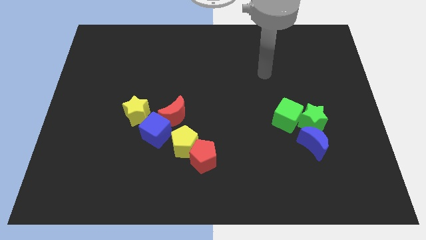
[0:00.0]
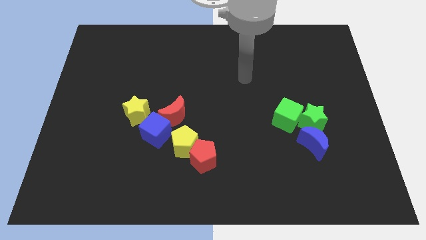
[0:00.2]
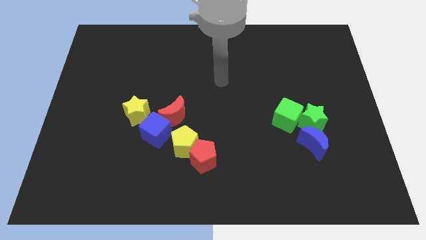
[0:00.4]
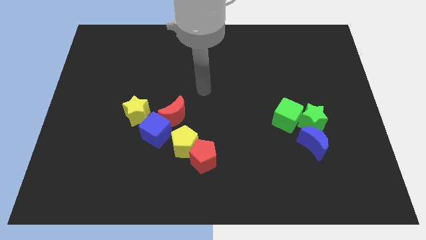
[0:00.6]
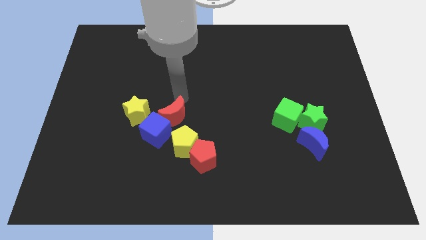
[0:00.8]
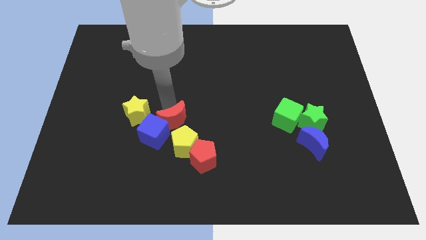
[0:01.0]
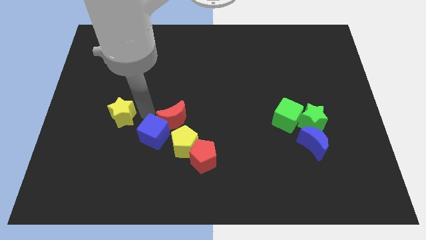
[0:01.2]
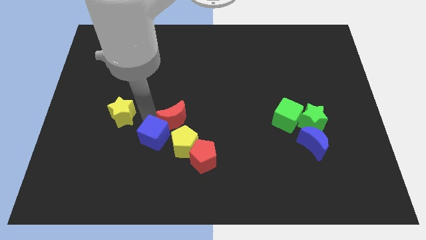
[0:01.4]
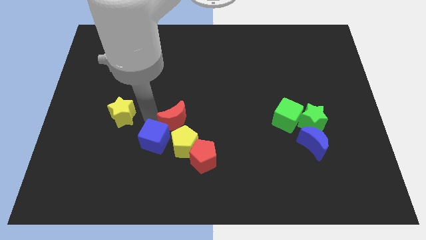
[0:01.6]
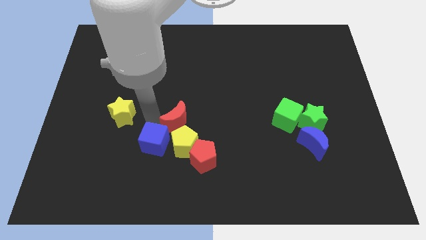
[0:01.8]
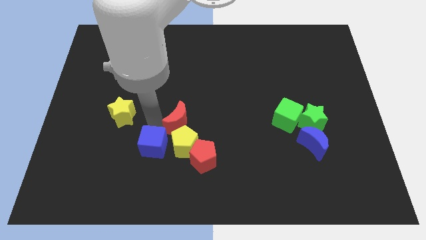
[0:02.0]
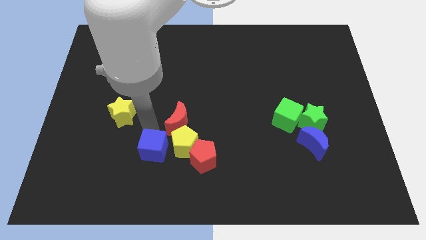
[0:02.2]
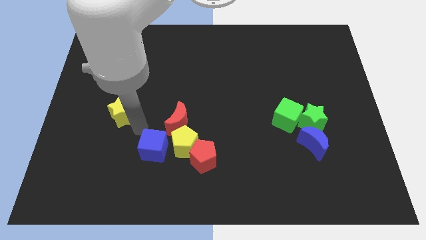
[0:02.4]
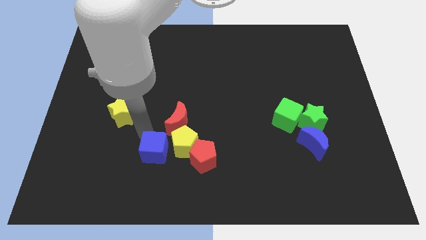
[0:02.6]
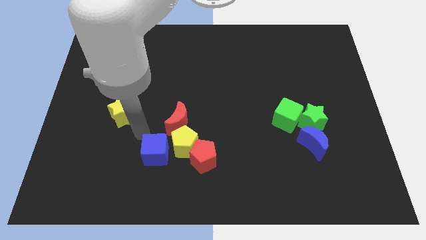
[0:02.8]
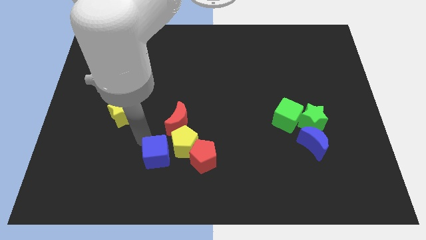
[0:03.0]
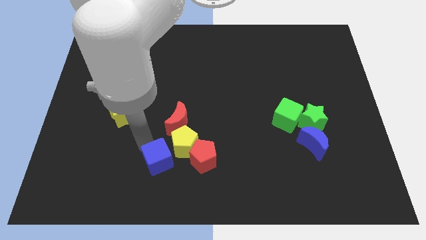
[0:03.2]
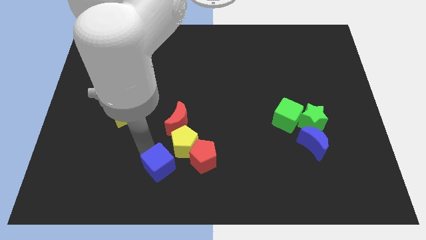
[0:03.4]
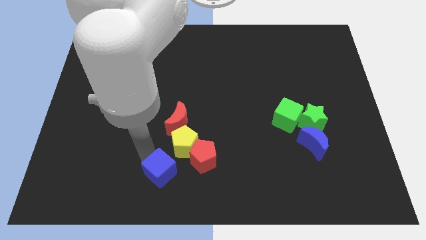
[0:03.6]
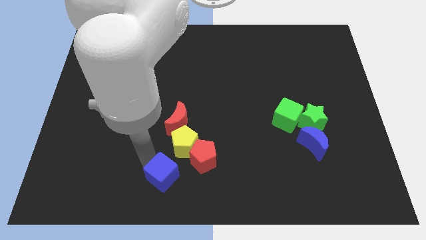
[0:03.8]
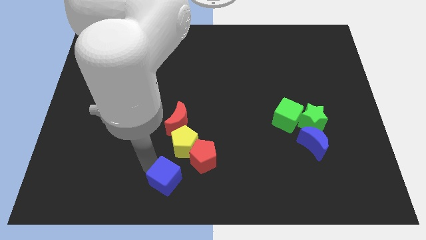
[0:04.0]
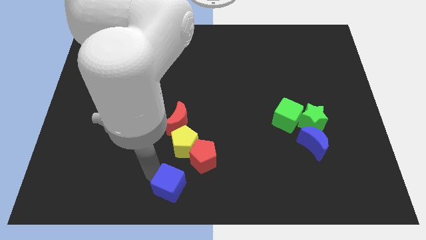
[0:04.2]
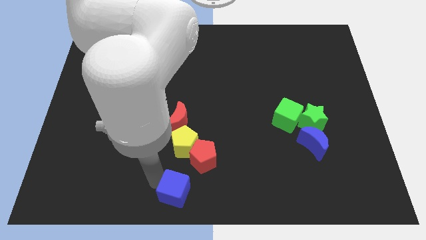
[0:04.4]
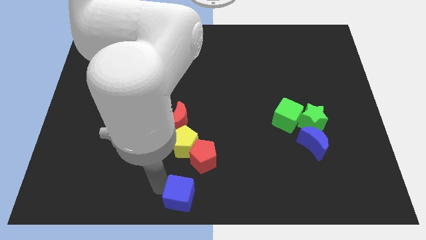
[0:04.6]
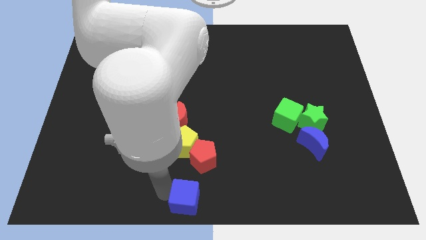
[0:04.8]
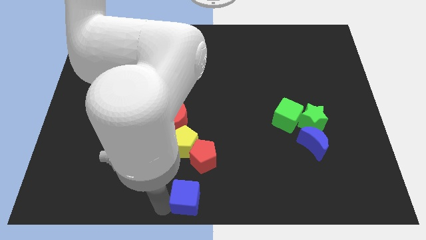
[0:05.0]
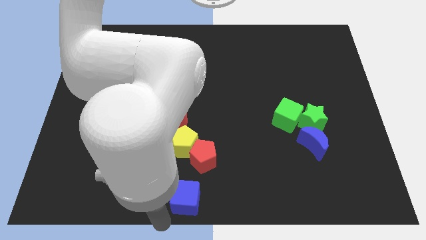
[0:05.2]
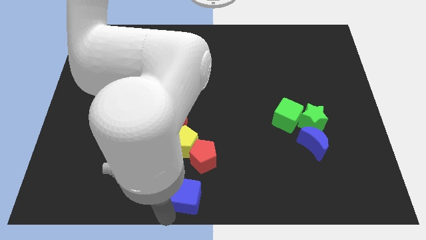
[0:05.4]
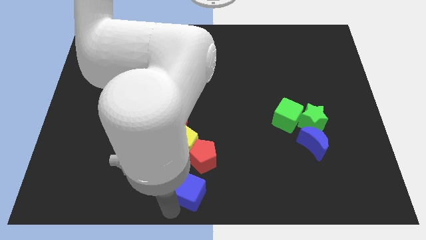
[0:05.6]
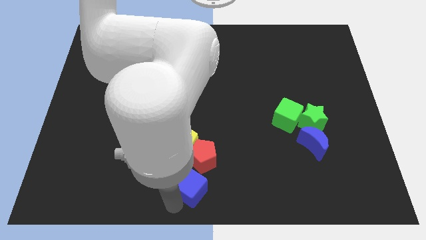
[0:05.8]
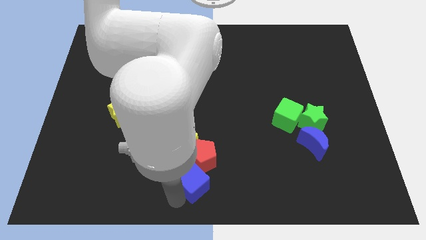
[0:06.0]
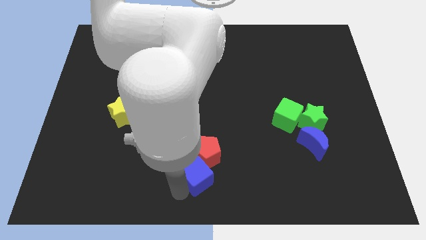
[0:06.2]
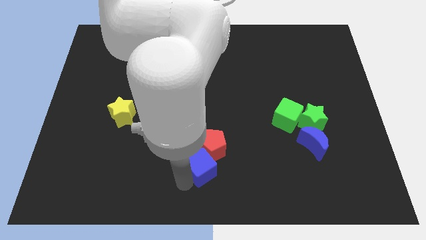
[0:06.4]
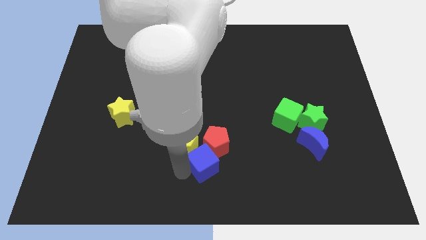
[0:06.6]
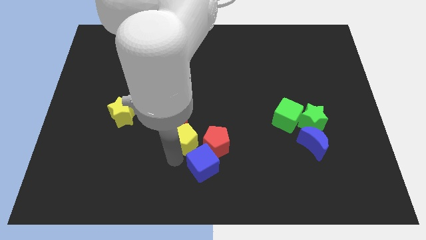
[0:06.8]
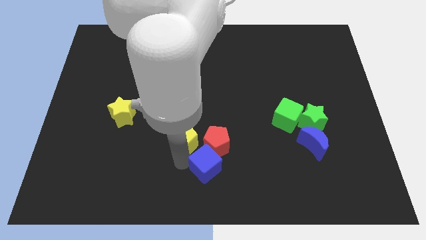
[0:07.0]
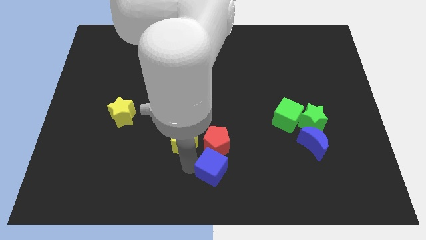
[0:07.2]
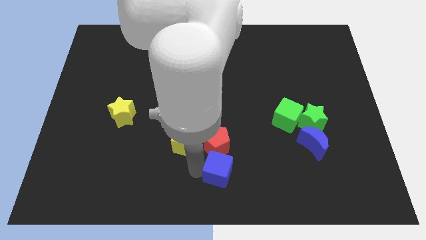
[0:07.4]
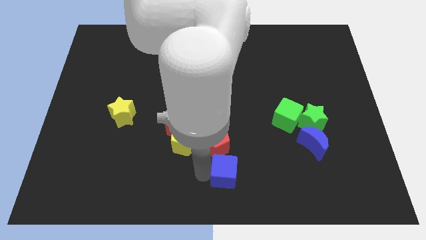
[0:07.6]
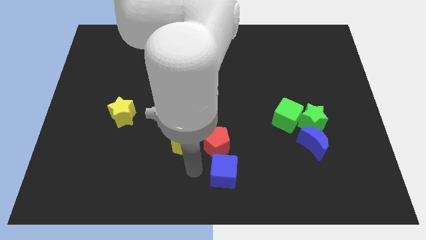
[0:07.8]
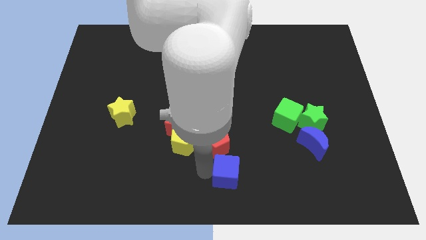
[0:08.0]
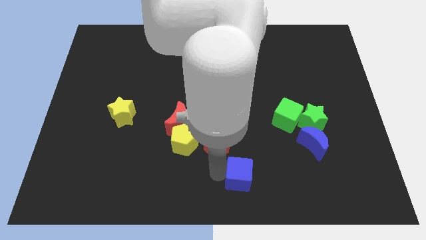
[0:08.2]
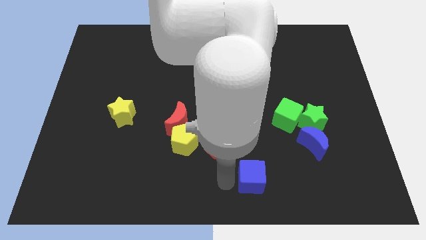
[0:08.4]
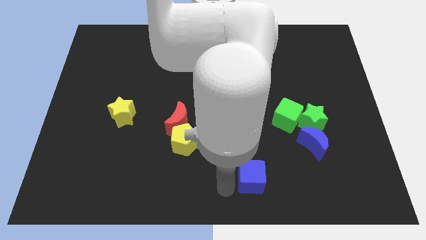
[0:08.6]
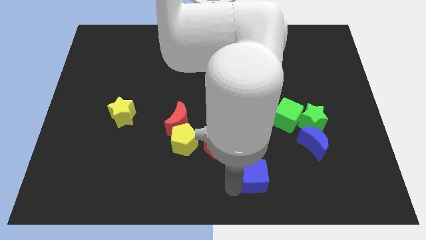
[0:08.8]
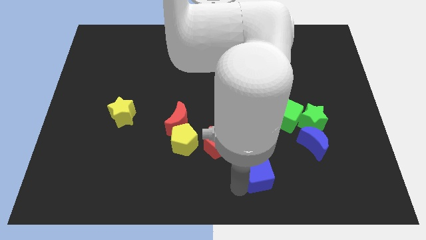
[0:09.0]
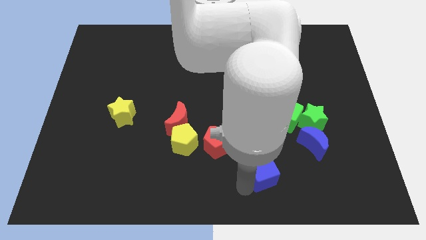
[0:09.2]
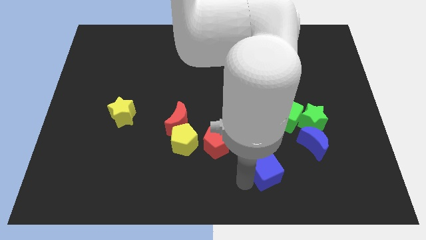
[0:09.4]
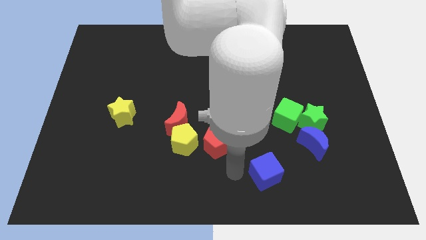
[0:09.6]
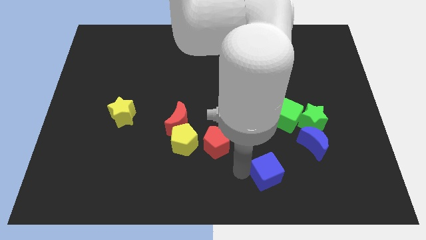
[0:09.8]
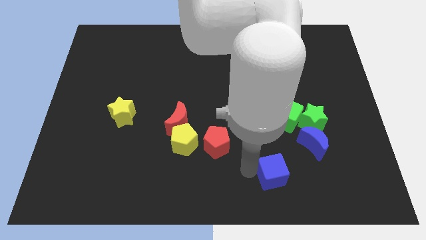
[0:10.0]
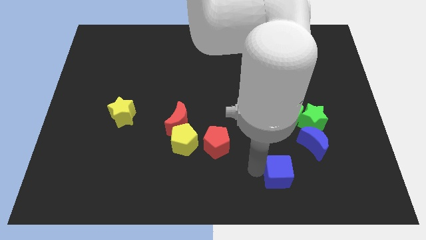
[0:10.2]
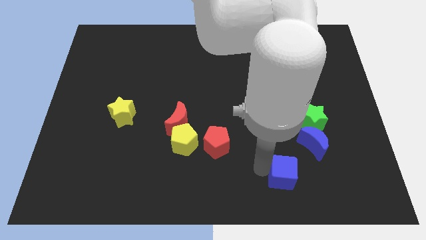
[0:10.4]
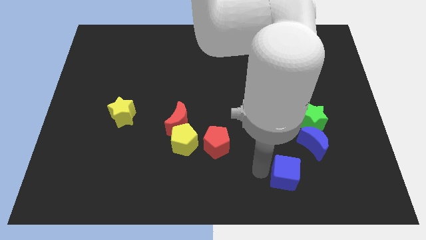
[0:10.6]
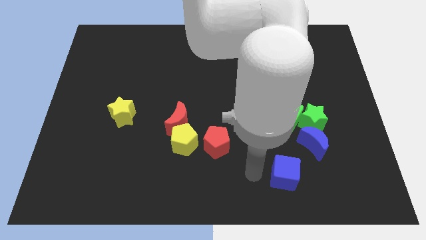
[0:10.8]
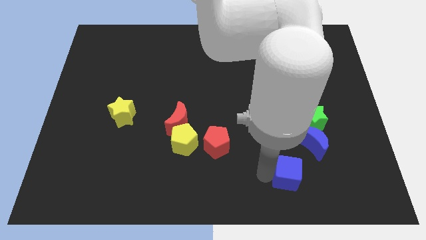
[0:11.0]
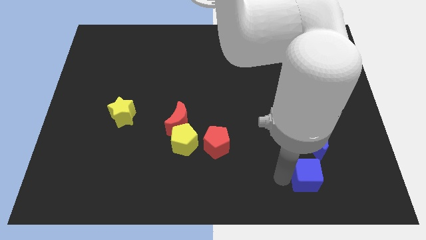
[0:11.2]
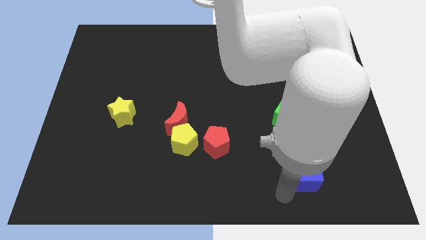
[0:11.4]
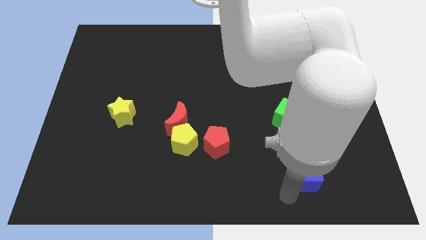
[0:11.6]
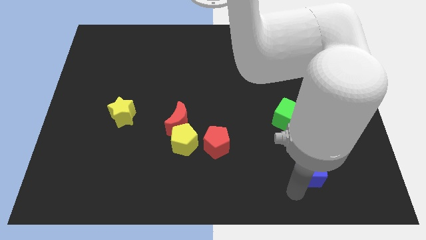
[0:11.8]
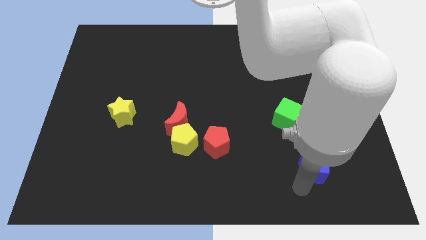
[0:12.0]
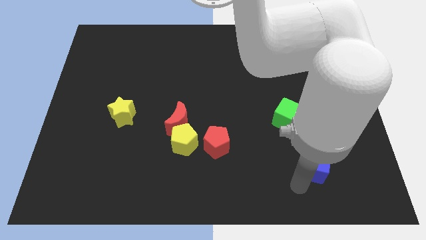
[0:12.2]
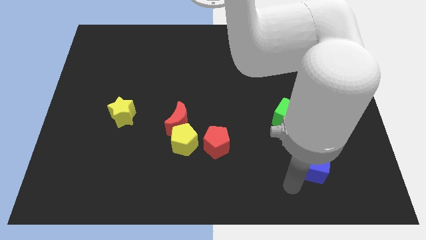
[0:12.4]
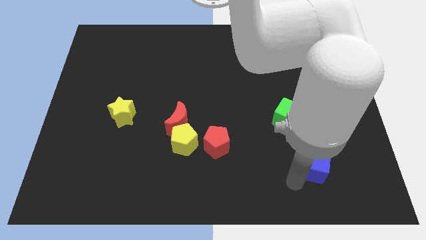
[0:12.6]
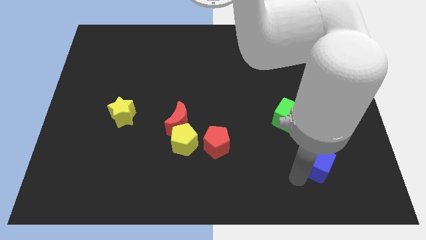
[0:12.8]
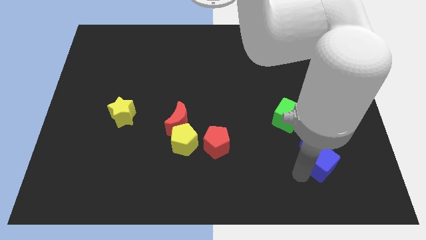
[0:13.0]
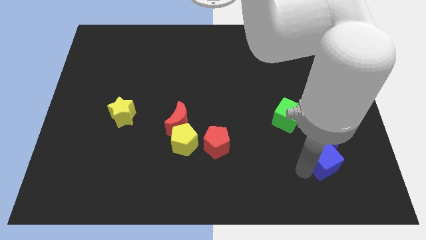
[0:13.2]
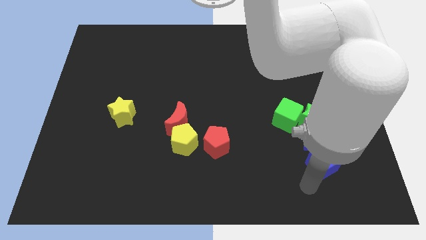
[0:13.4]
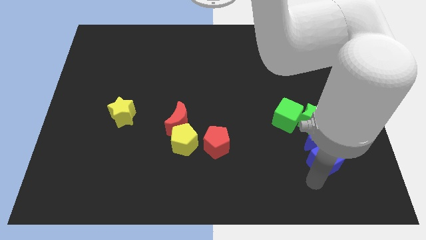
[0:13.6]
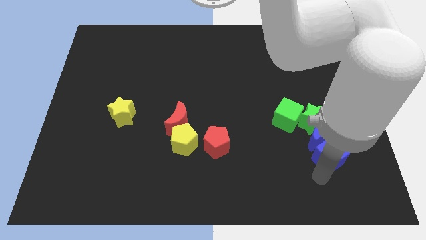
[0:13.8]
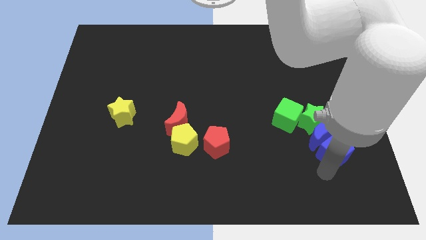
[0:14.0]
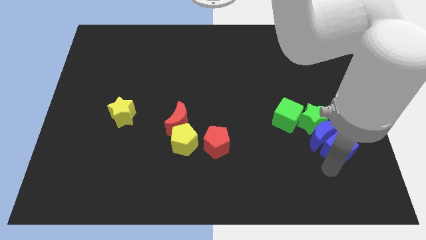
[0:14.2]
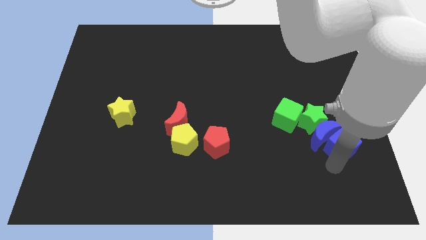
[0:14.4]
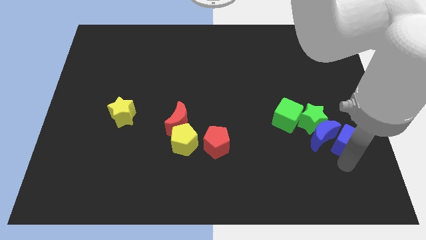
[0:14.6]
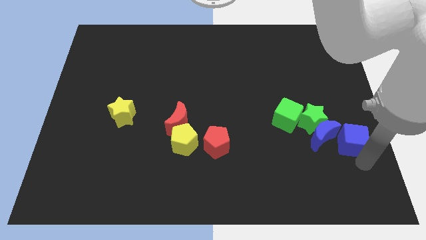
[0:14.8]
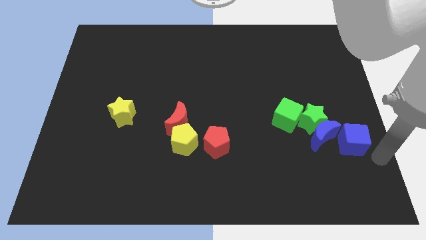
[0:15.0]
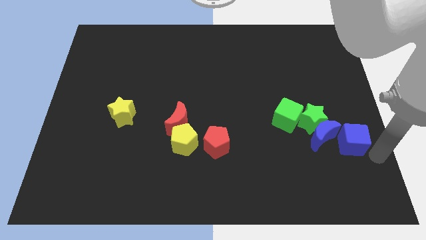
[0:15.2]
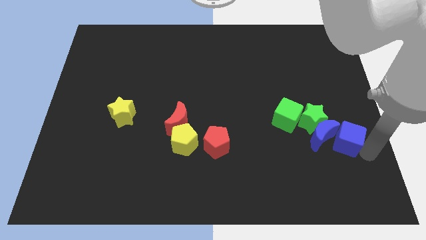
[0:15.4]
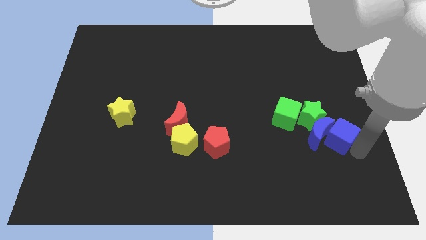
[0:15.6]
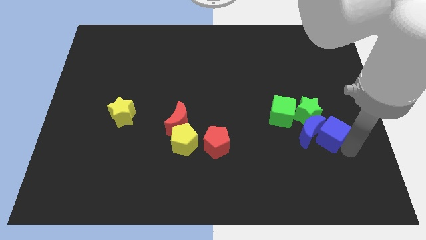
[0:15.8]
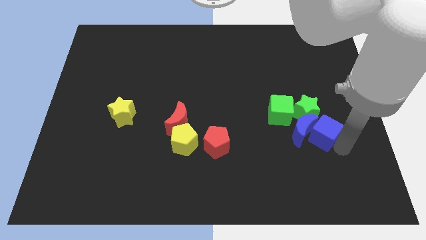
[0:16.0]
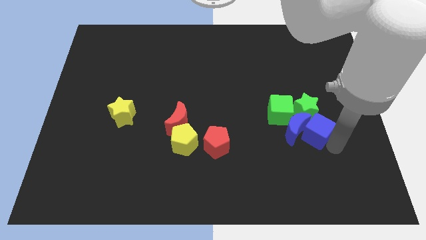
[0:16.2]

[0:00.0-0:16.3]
push the blue cube to the green star
